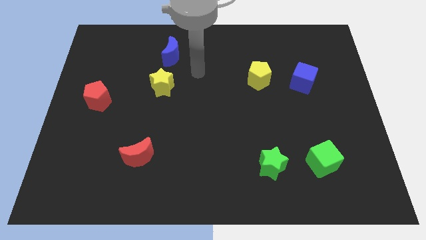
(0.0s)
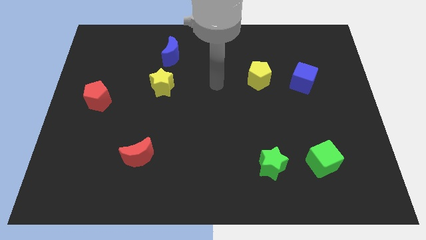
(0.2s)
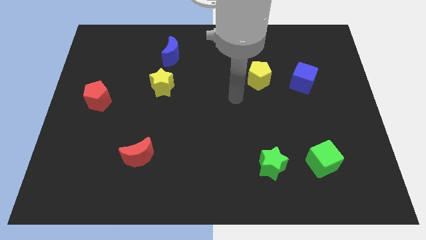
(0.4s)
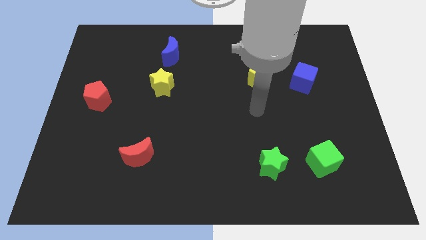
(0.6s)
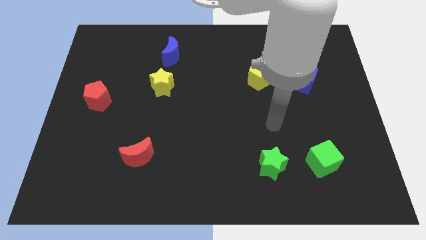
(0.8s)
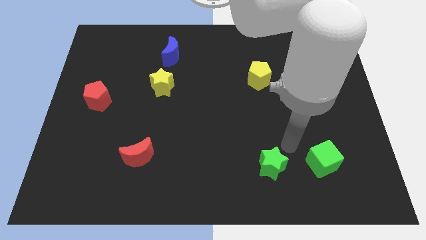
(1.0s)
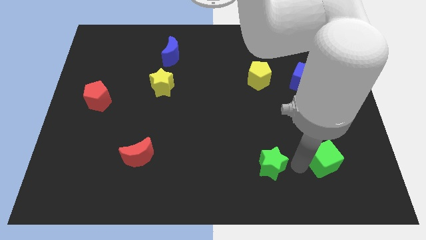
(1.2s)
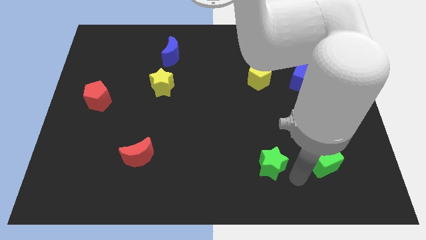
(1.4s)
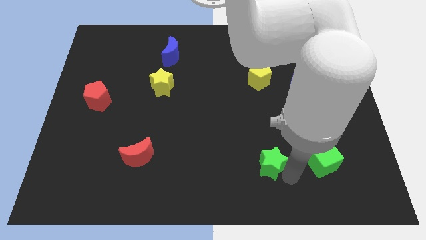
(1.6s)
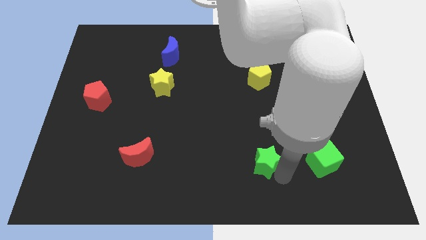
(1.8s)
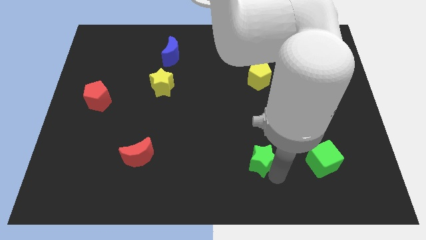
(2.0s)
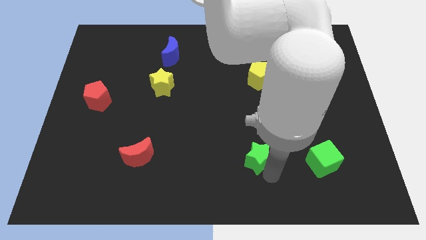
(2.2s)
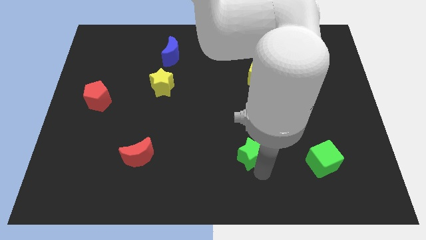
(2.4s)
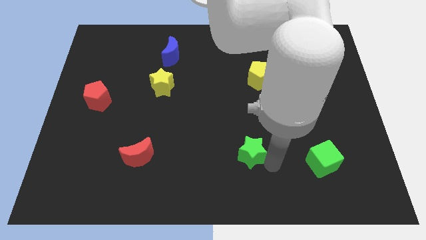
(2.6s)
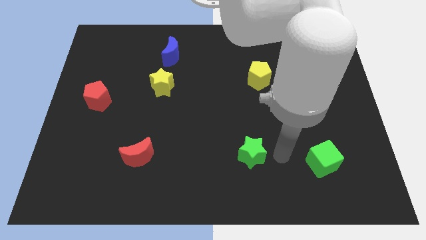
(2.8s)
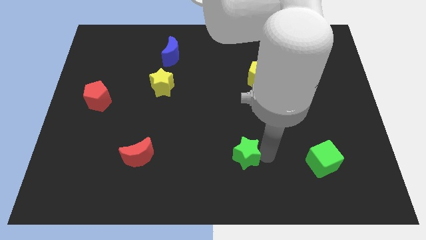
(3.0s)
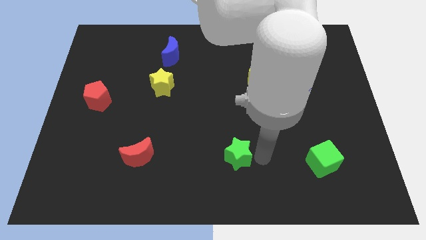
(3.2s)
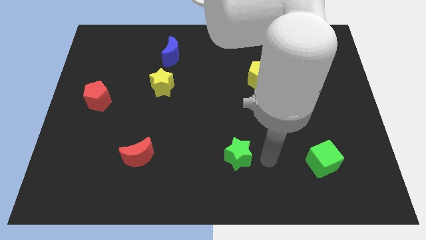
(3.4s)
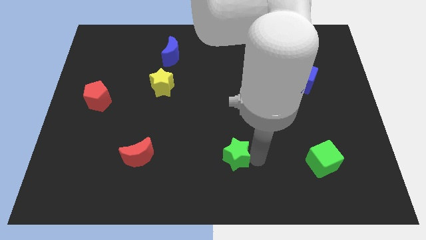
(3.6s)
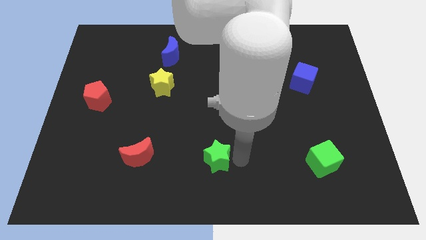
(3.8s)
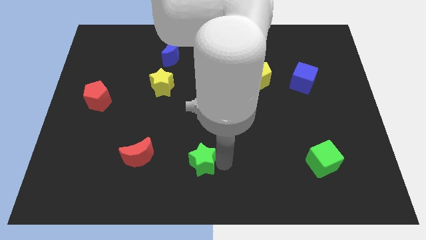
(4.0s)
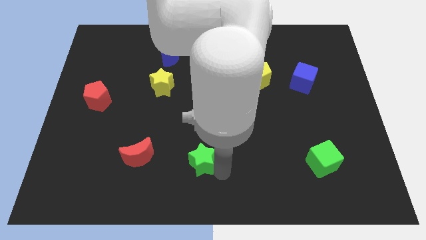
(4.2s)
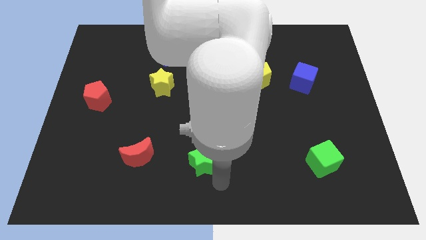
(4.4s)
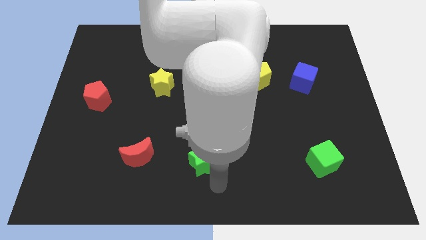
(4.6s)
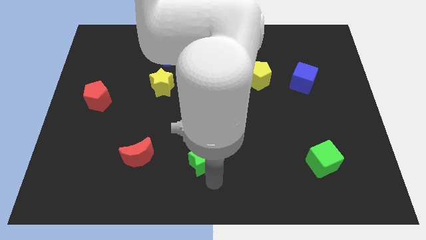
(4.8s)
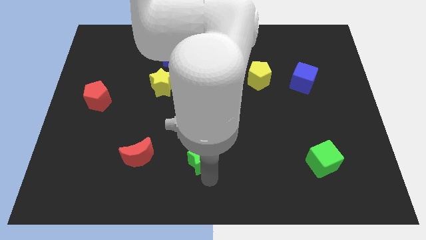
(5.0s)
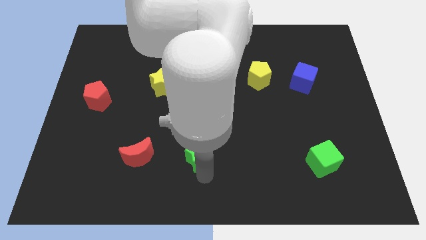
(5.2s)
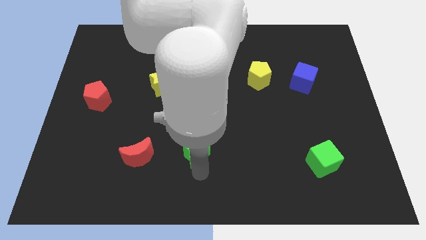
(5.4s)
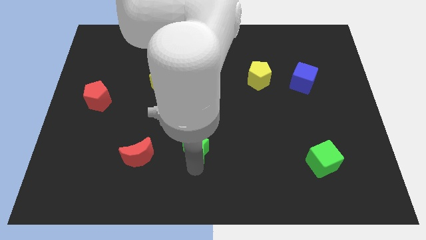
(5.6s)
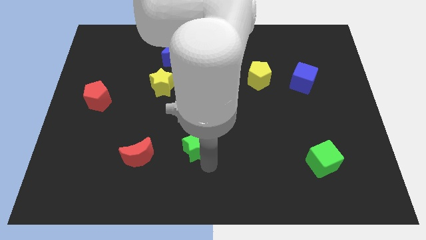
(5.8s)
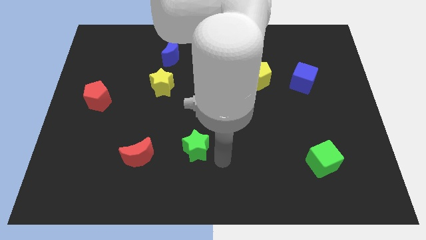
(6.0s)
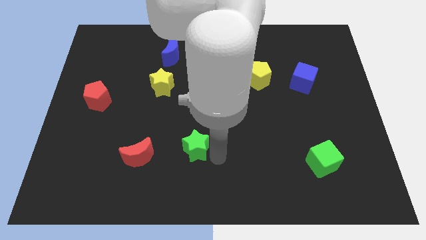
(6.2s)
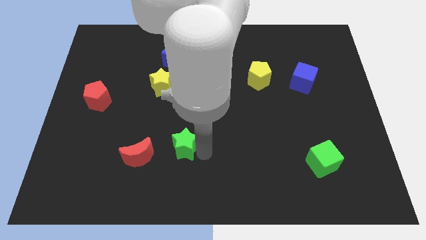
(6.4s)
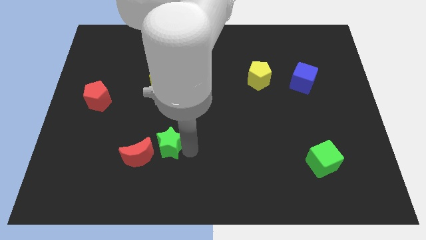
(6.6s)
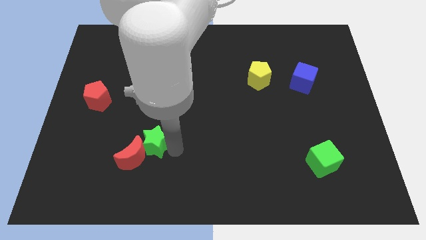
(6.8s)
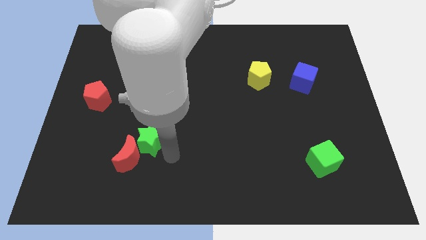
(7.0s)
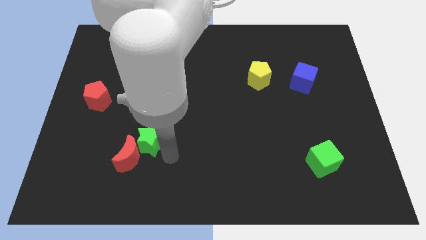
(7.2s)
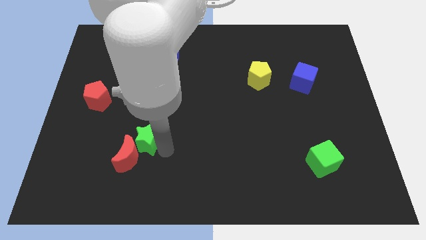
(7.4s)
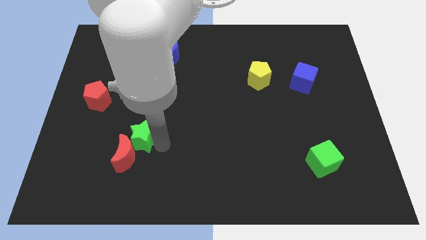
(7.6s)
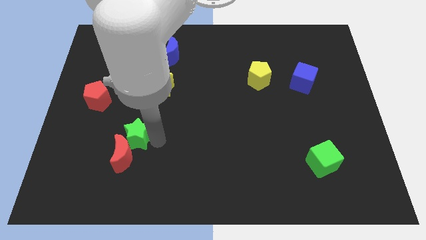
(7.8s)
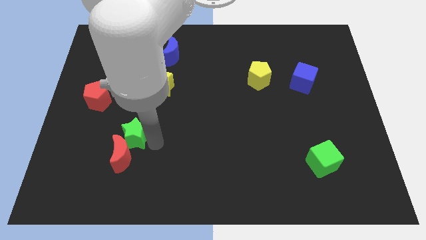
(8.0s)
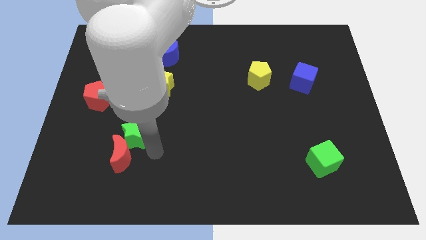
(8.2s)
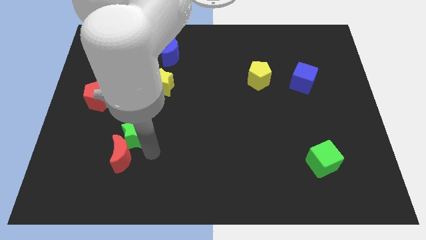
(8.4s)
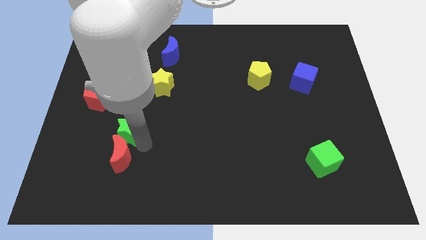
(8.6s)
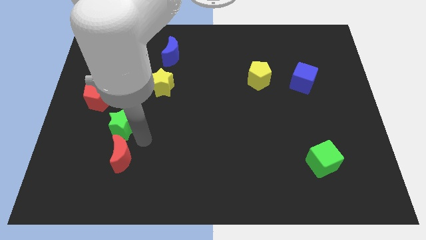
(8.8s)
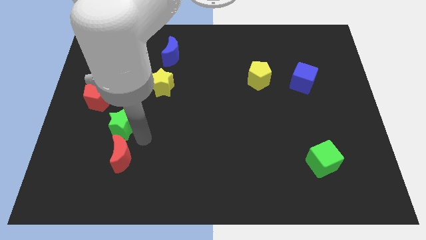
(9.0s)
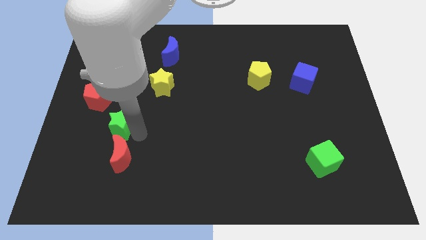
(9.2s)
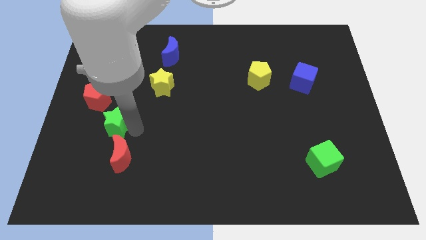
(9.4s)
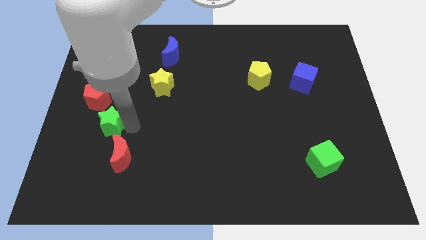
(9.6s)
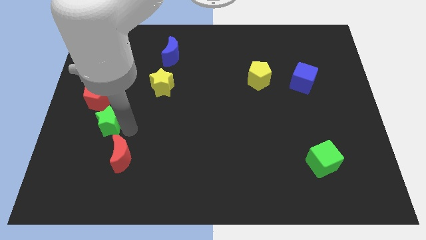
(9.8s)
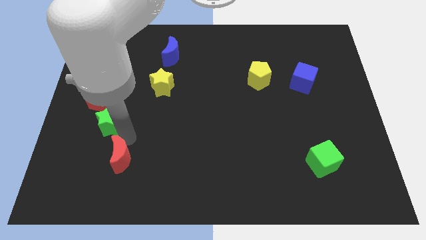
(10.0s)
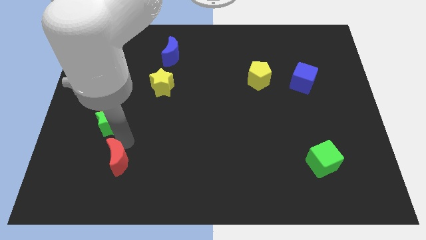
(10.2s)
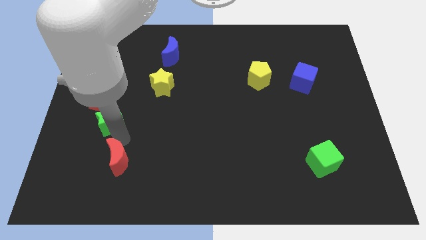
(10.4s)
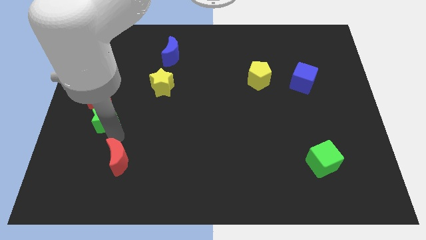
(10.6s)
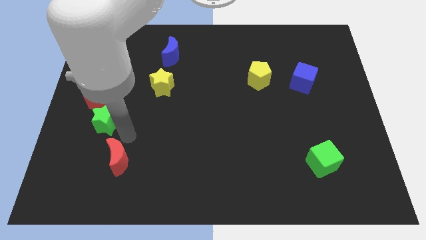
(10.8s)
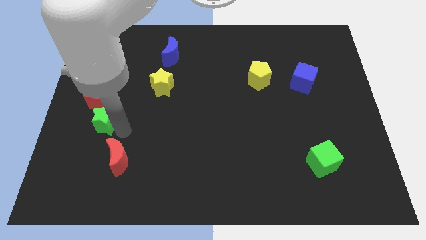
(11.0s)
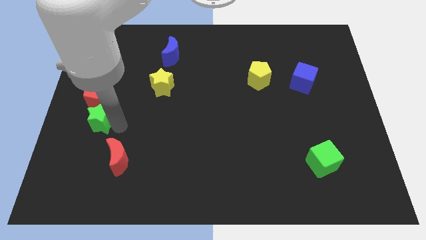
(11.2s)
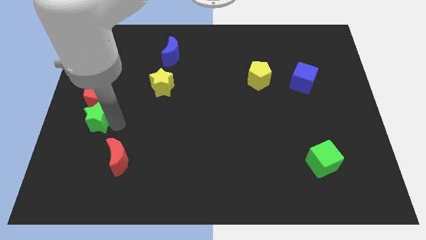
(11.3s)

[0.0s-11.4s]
slide the green star to the left side of the board
